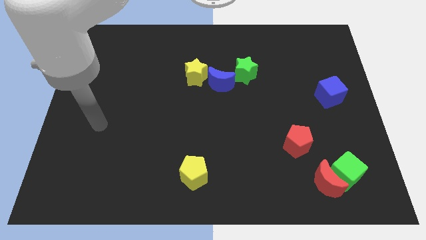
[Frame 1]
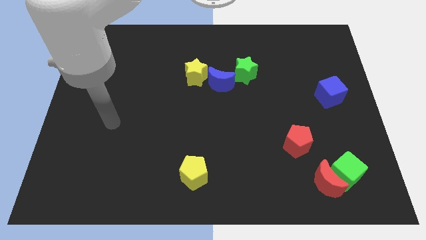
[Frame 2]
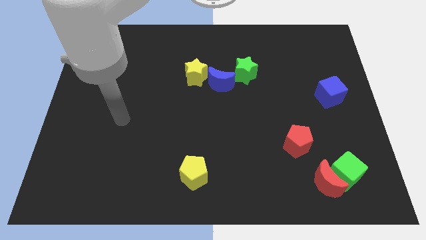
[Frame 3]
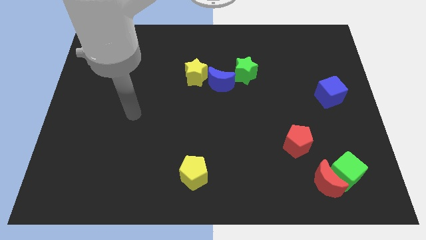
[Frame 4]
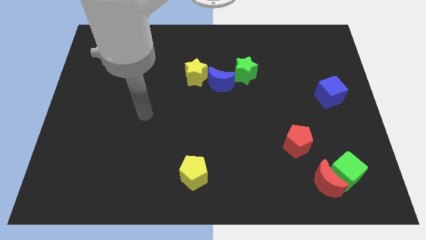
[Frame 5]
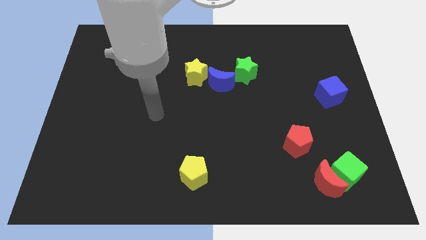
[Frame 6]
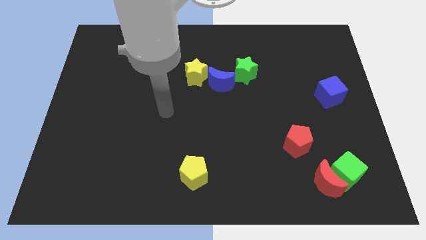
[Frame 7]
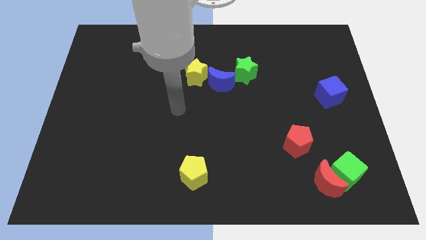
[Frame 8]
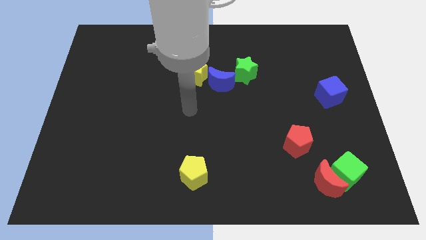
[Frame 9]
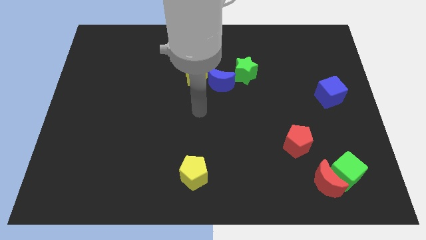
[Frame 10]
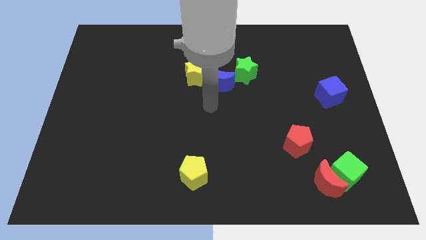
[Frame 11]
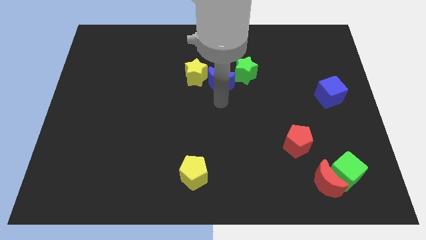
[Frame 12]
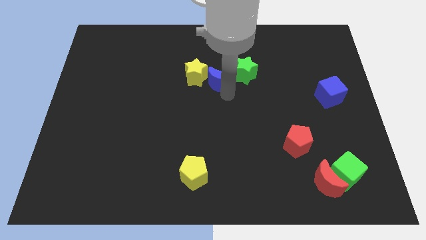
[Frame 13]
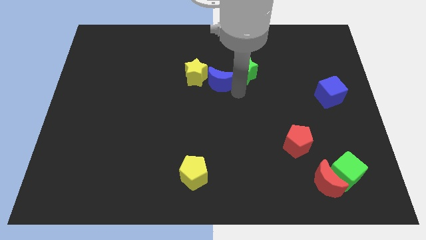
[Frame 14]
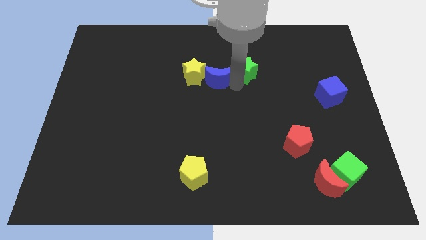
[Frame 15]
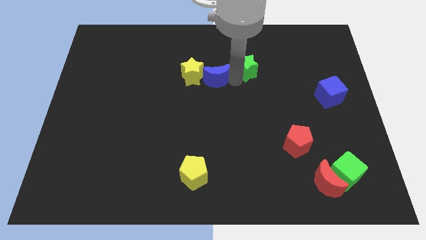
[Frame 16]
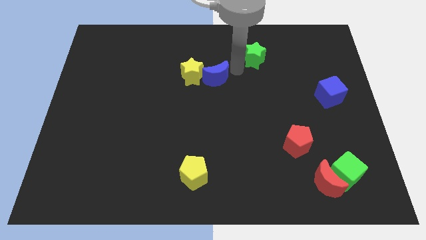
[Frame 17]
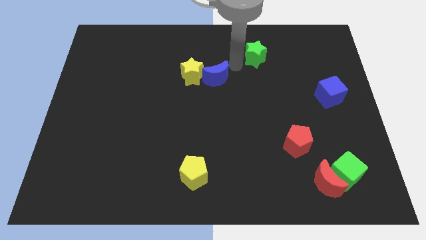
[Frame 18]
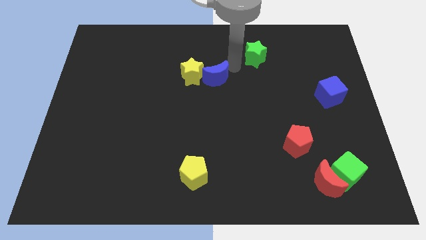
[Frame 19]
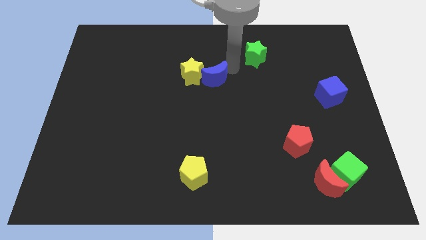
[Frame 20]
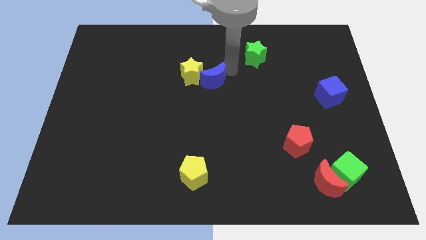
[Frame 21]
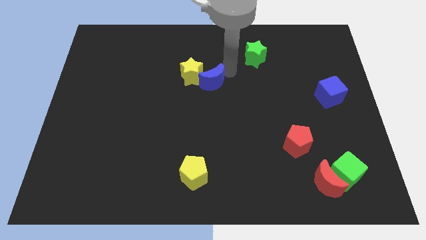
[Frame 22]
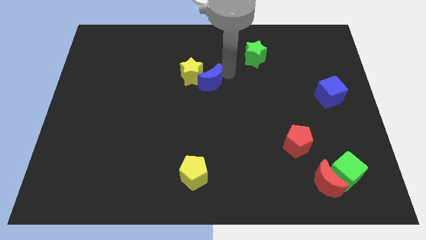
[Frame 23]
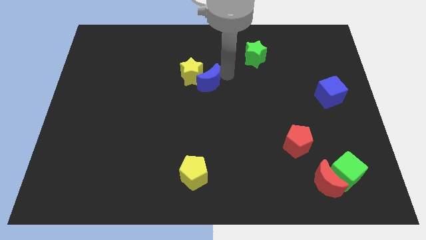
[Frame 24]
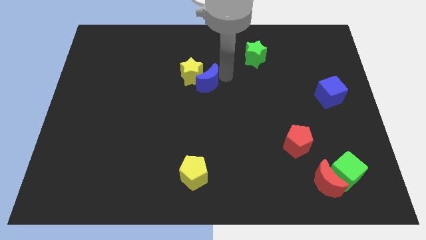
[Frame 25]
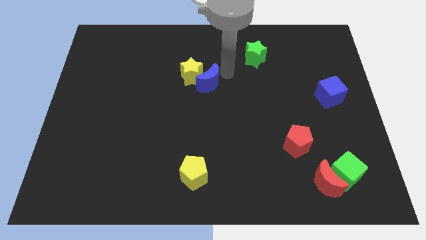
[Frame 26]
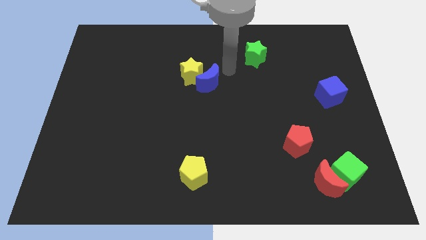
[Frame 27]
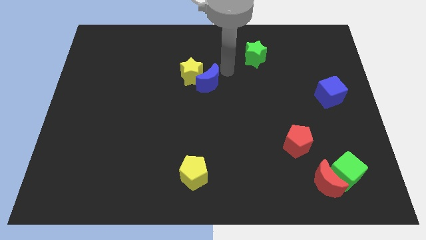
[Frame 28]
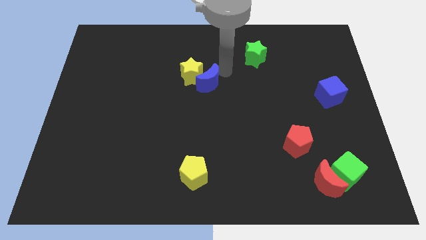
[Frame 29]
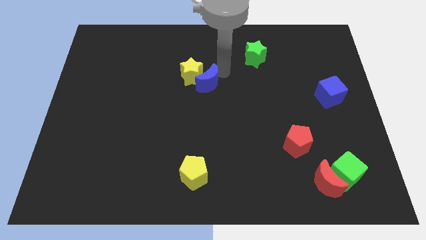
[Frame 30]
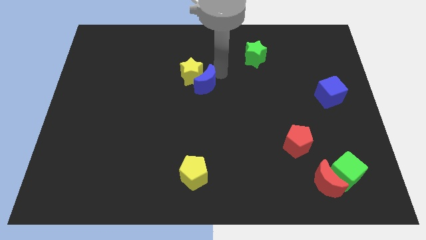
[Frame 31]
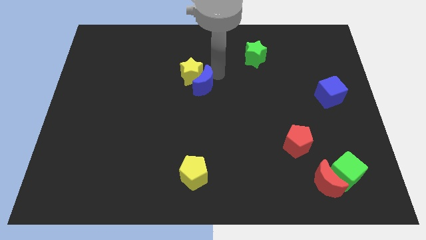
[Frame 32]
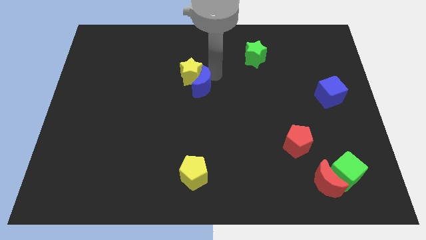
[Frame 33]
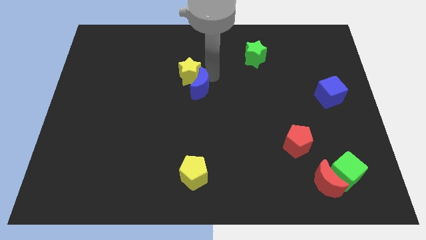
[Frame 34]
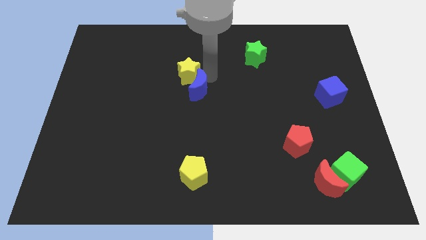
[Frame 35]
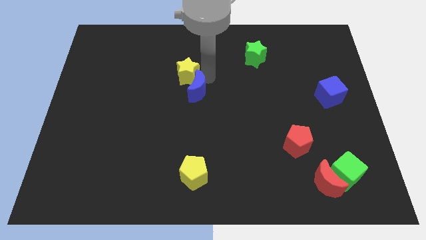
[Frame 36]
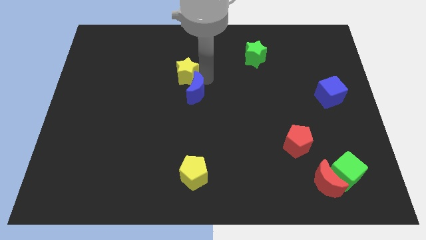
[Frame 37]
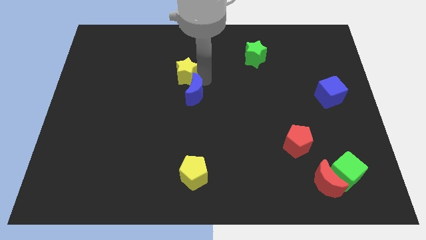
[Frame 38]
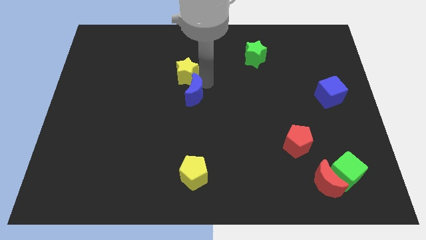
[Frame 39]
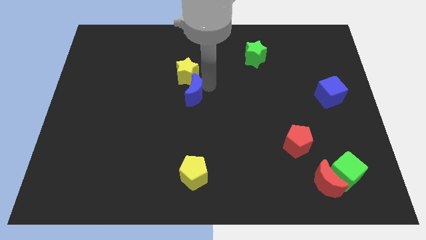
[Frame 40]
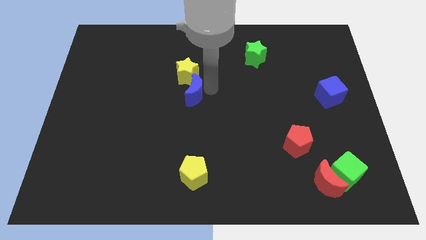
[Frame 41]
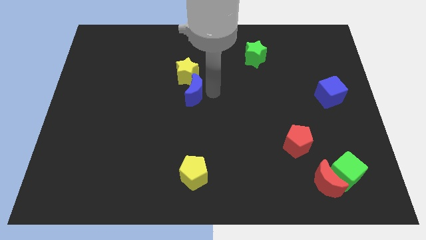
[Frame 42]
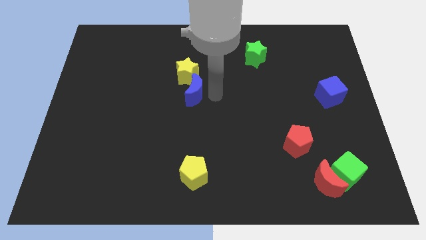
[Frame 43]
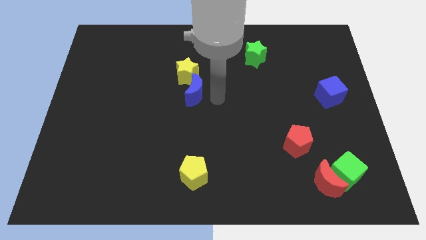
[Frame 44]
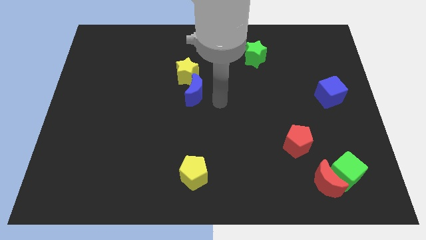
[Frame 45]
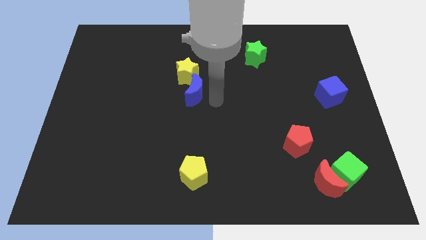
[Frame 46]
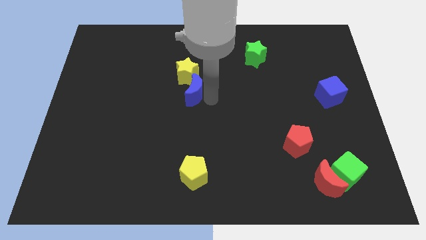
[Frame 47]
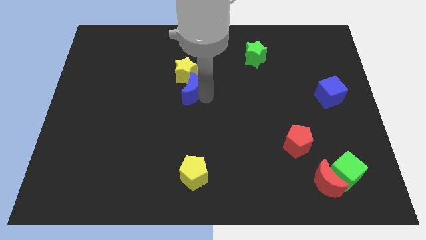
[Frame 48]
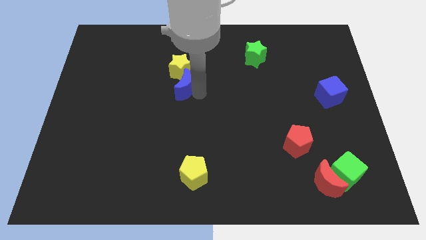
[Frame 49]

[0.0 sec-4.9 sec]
slightly move the blue moon left

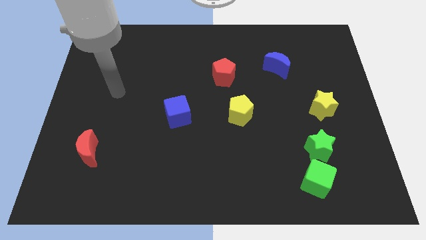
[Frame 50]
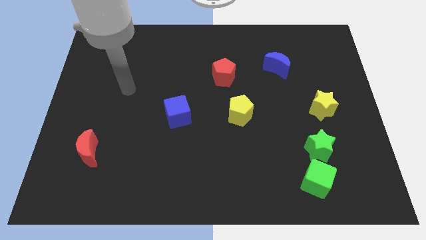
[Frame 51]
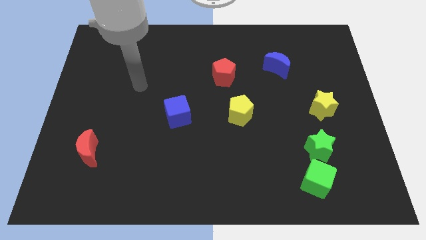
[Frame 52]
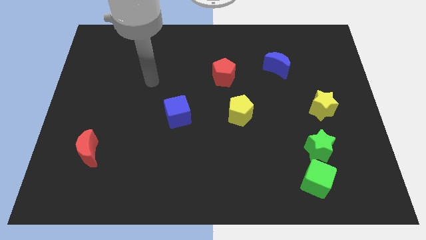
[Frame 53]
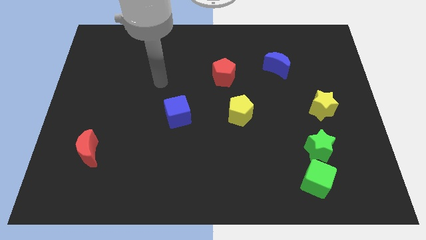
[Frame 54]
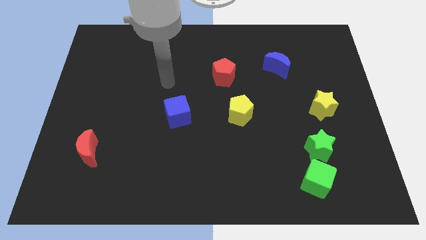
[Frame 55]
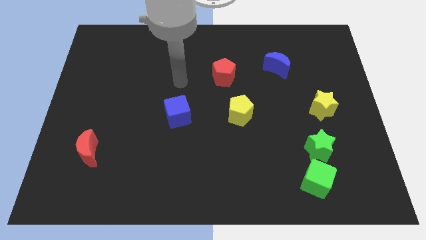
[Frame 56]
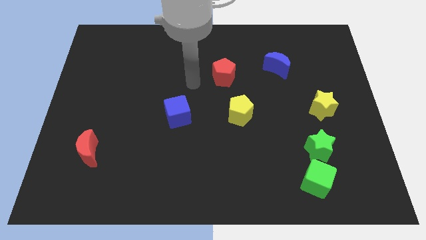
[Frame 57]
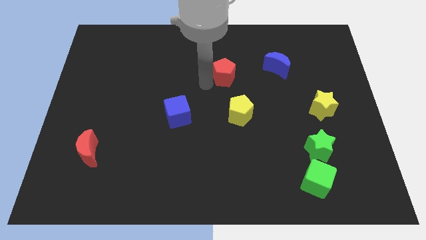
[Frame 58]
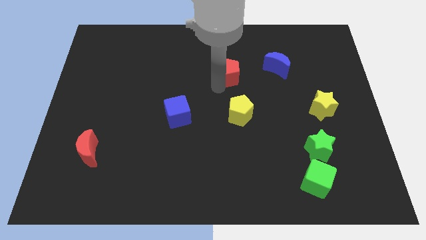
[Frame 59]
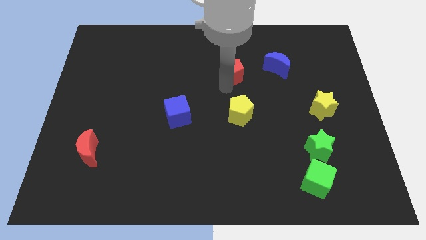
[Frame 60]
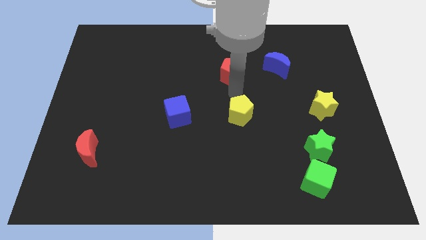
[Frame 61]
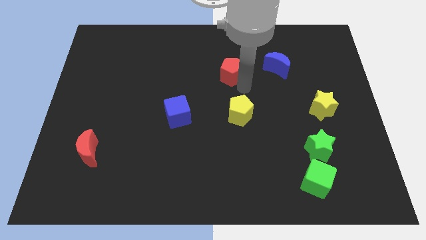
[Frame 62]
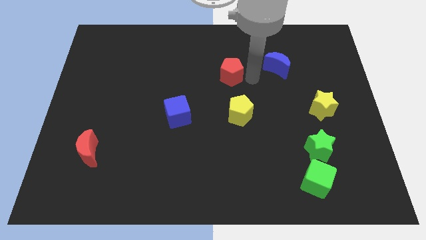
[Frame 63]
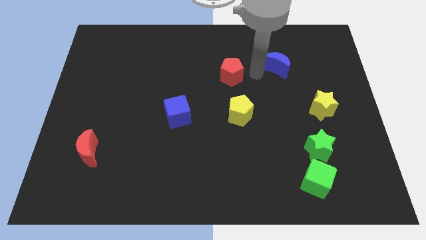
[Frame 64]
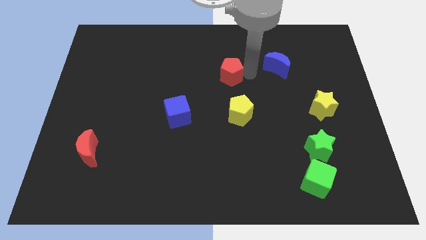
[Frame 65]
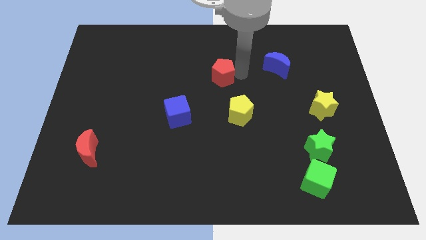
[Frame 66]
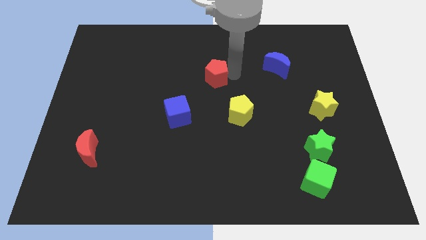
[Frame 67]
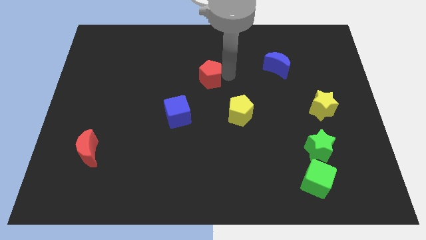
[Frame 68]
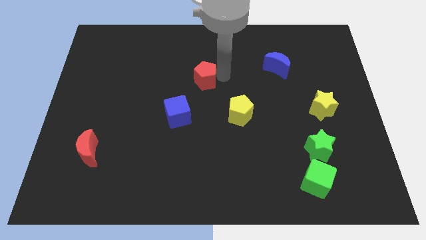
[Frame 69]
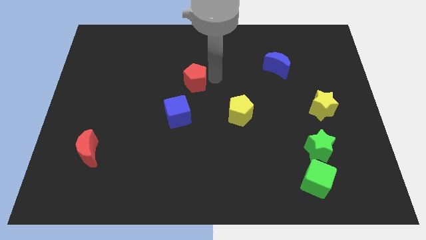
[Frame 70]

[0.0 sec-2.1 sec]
move the red pentagon to the left slightly

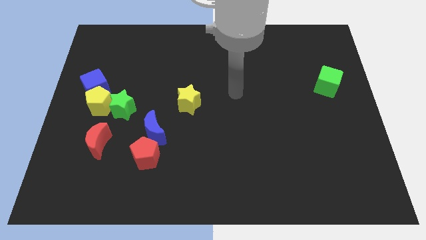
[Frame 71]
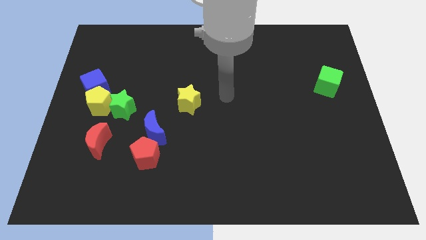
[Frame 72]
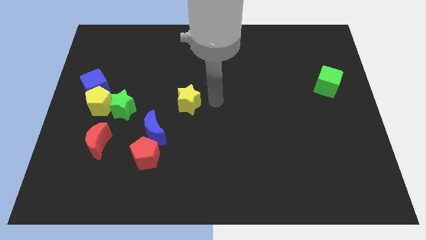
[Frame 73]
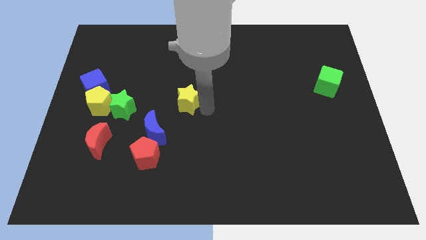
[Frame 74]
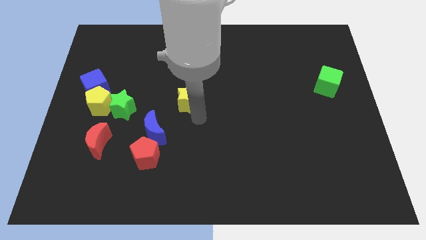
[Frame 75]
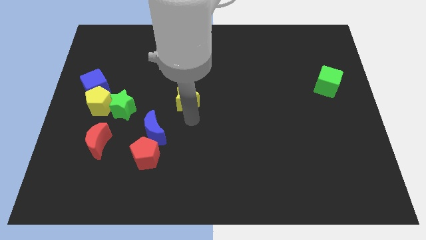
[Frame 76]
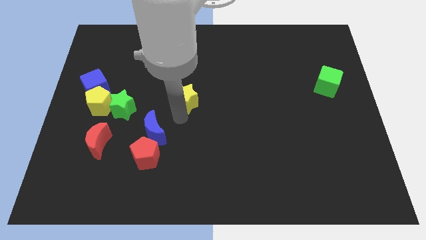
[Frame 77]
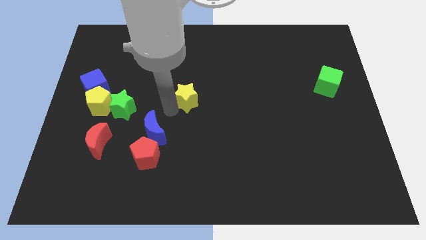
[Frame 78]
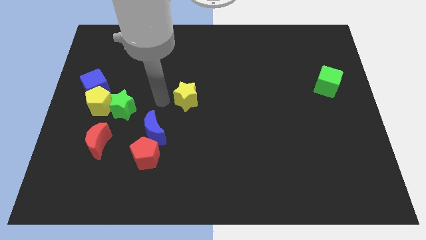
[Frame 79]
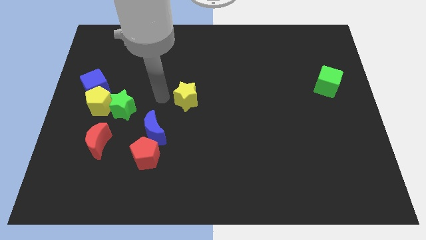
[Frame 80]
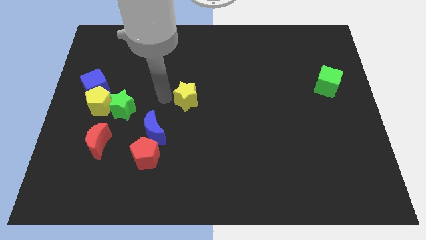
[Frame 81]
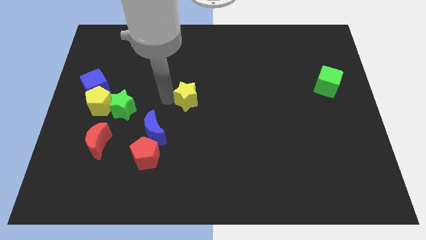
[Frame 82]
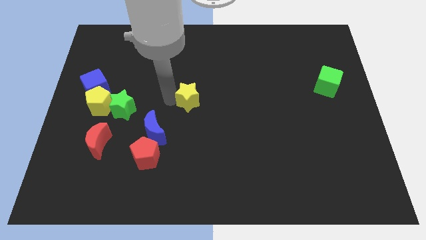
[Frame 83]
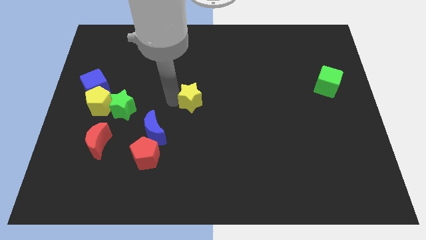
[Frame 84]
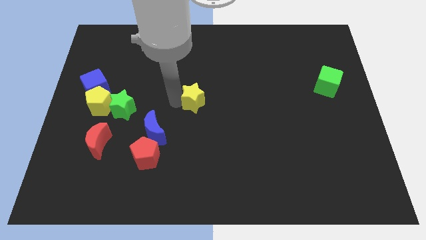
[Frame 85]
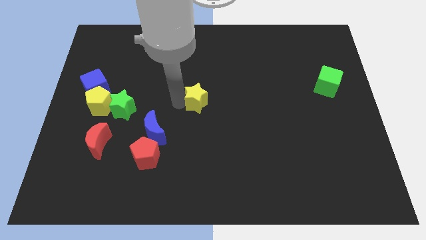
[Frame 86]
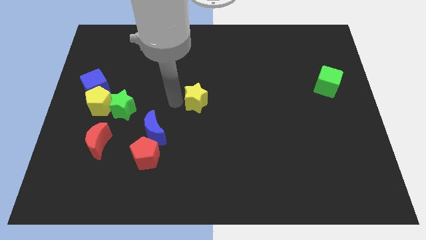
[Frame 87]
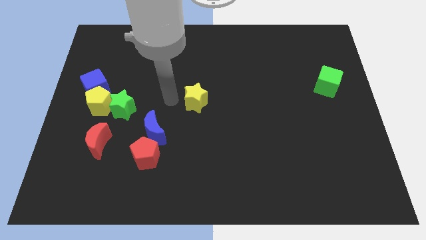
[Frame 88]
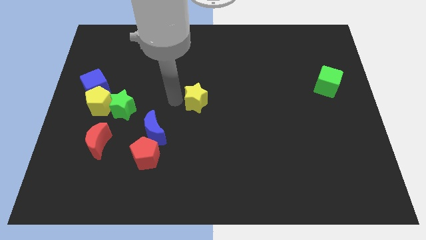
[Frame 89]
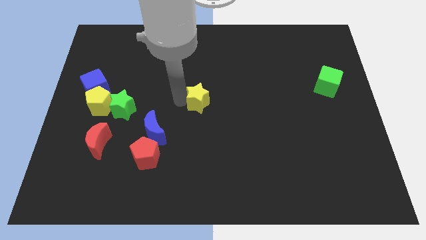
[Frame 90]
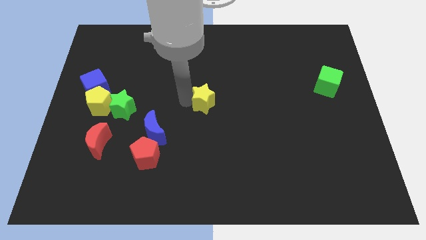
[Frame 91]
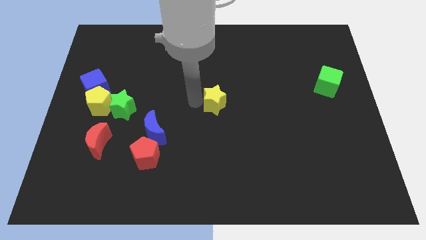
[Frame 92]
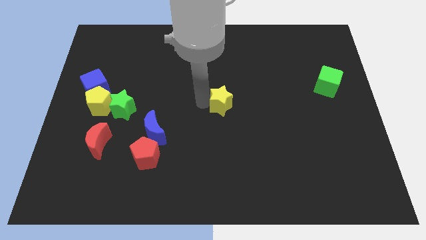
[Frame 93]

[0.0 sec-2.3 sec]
push the yellow star to the right slightly
